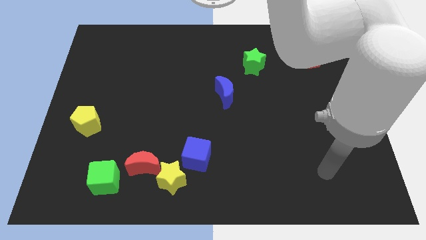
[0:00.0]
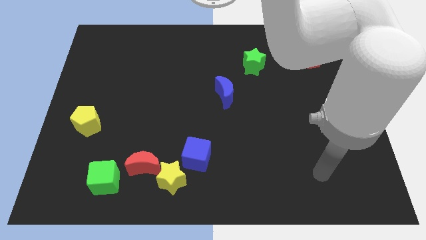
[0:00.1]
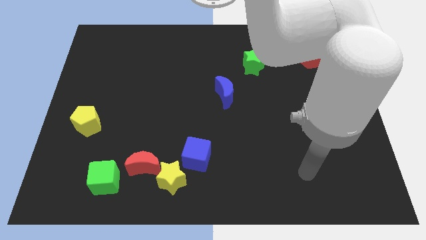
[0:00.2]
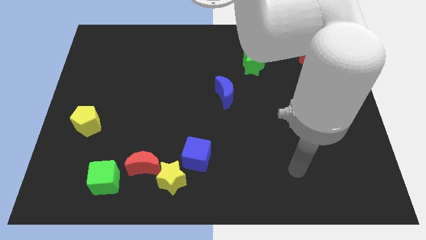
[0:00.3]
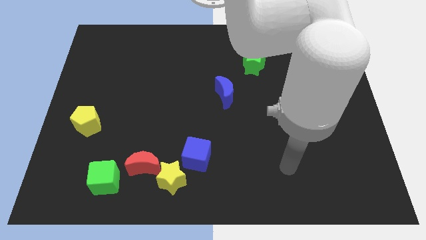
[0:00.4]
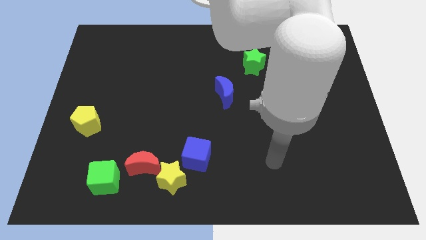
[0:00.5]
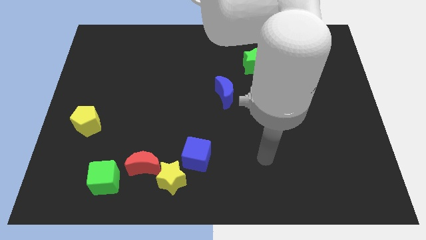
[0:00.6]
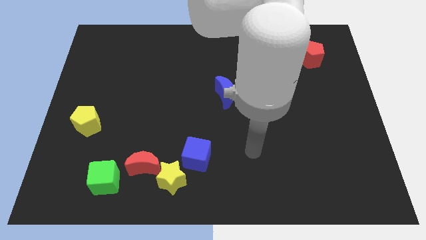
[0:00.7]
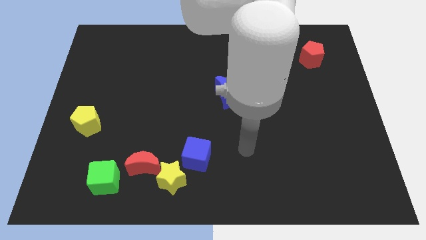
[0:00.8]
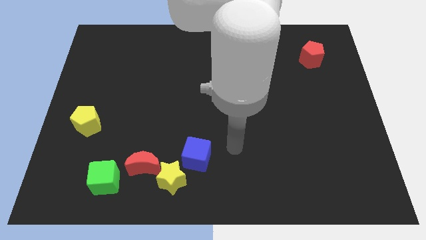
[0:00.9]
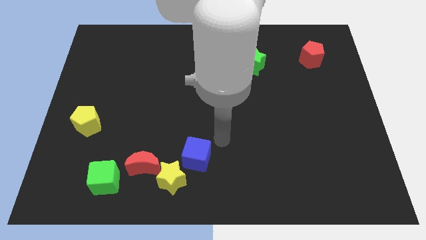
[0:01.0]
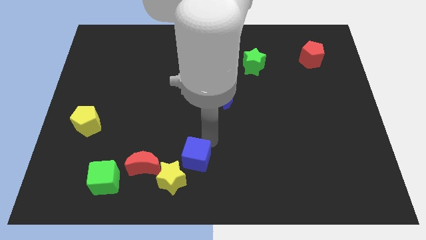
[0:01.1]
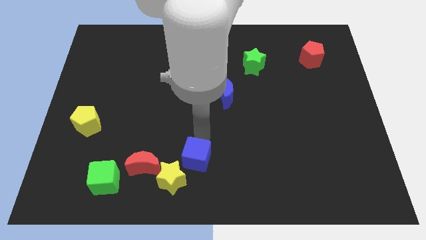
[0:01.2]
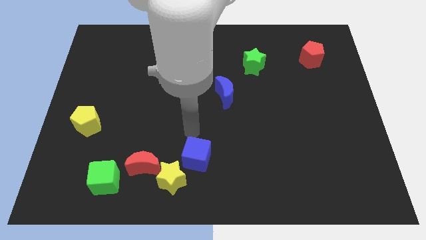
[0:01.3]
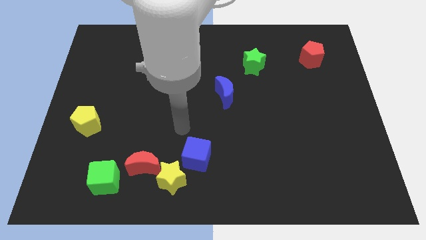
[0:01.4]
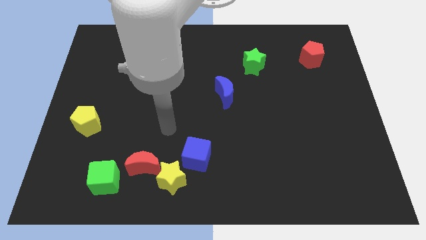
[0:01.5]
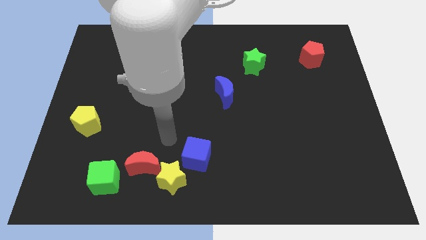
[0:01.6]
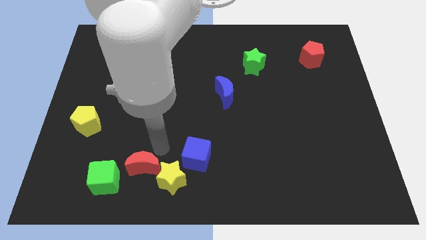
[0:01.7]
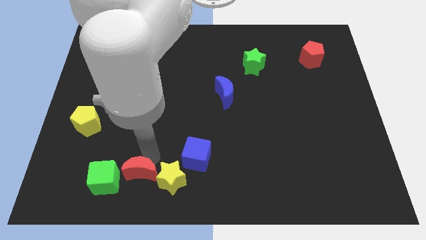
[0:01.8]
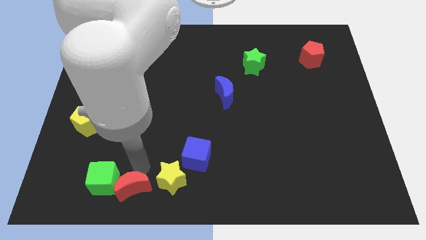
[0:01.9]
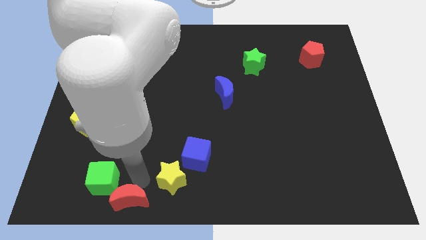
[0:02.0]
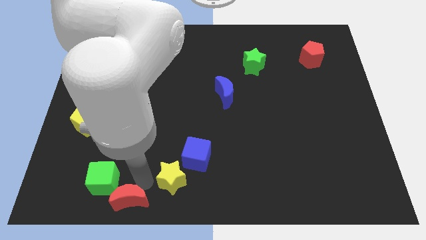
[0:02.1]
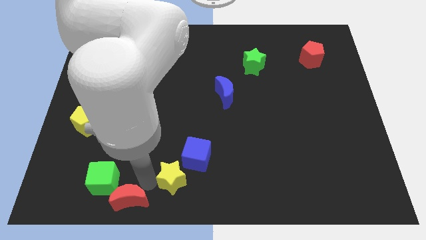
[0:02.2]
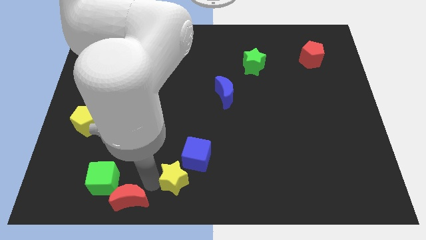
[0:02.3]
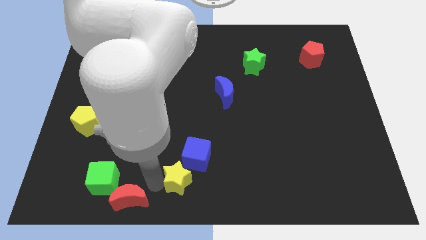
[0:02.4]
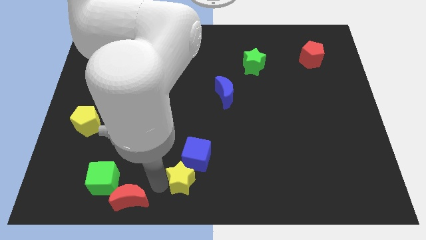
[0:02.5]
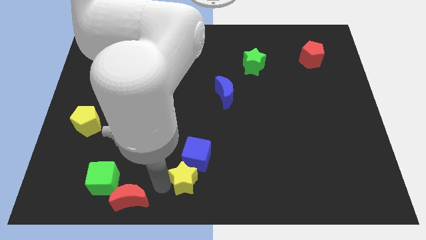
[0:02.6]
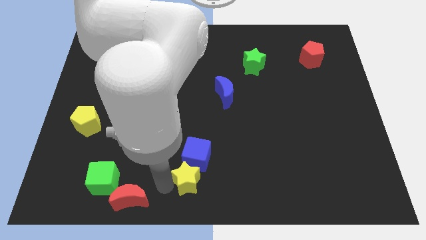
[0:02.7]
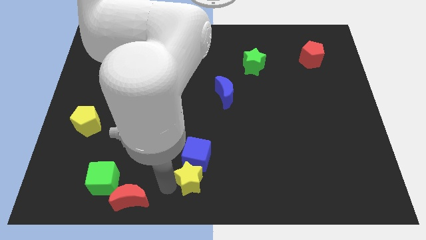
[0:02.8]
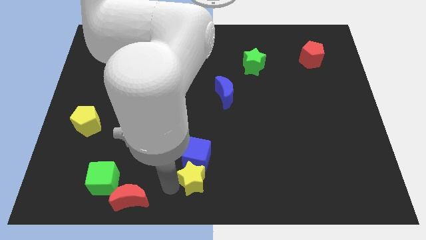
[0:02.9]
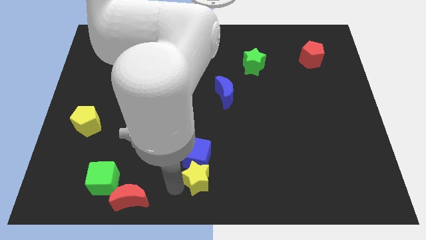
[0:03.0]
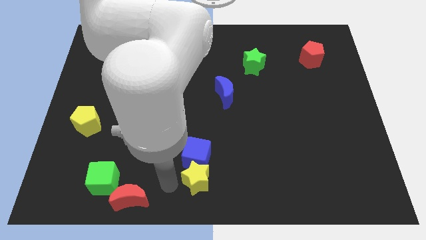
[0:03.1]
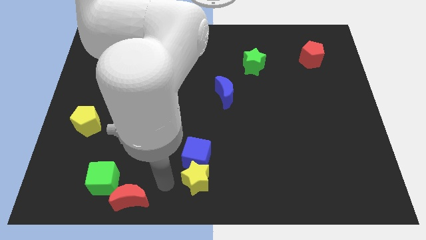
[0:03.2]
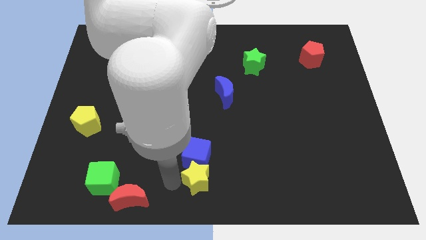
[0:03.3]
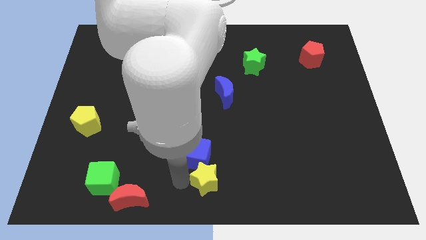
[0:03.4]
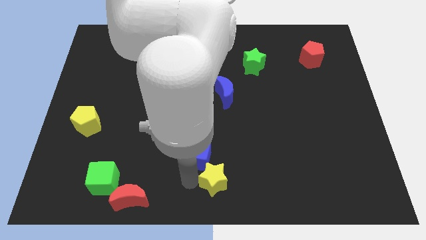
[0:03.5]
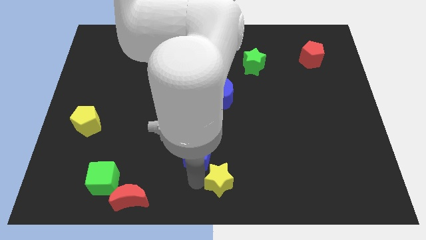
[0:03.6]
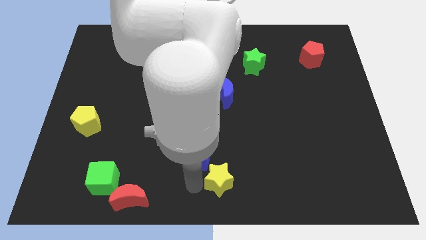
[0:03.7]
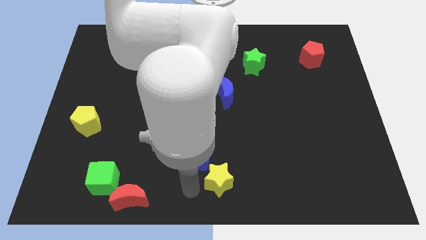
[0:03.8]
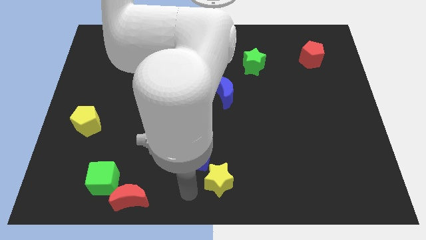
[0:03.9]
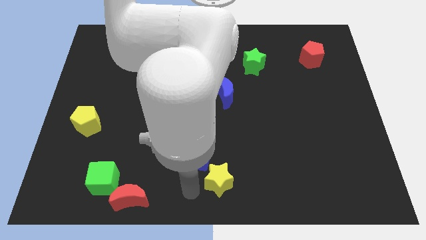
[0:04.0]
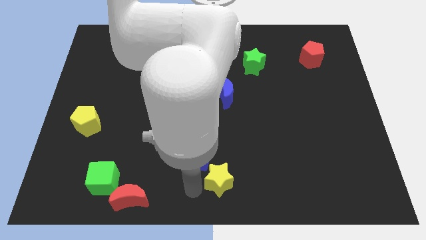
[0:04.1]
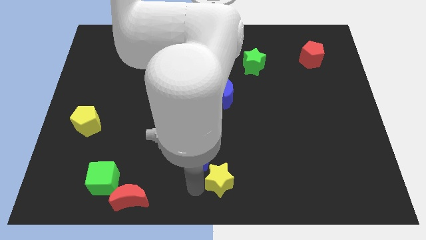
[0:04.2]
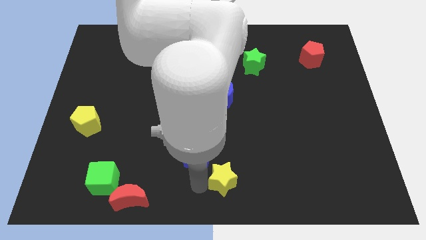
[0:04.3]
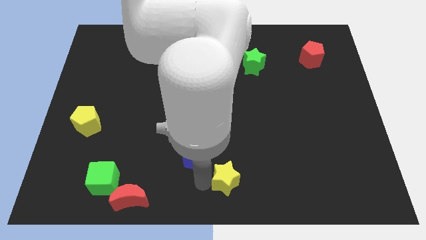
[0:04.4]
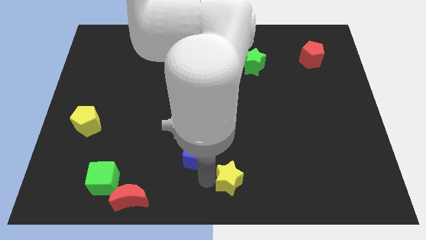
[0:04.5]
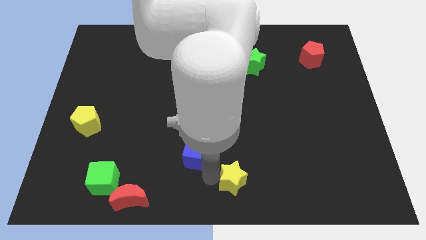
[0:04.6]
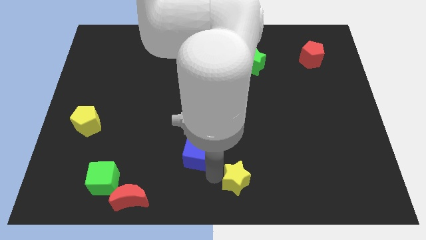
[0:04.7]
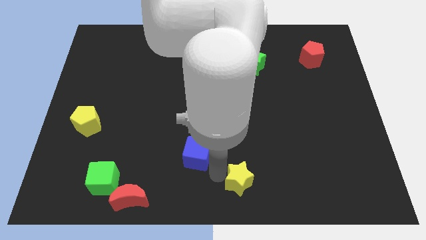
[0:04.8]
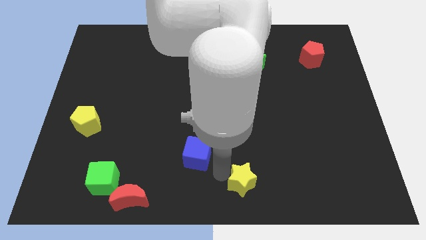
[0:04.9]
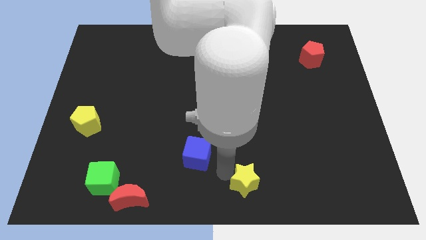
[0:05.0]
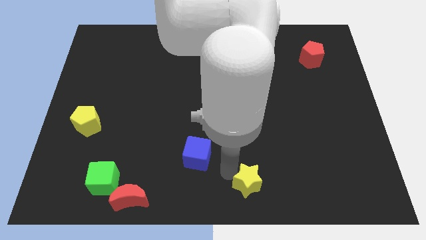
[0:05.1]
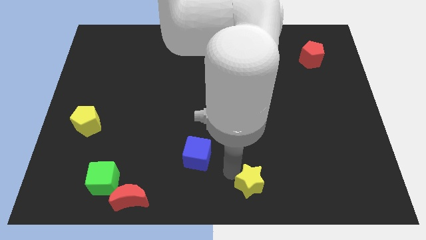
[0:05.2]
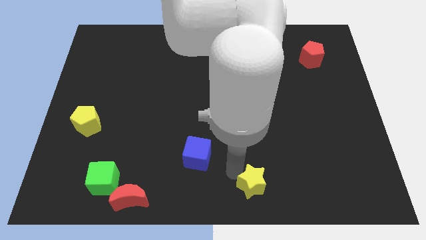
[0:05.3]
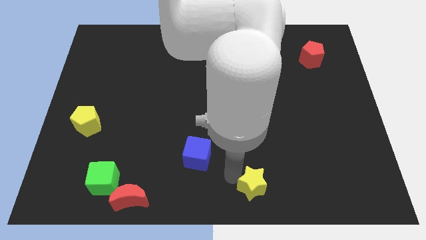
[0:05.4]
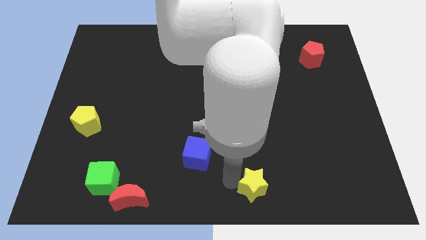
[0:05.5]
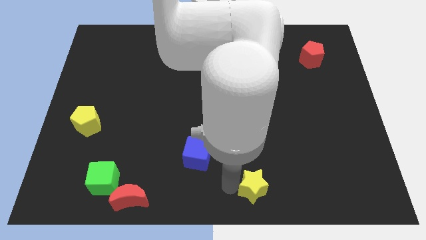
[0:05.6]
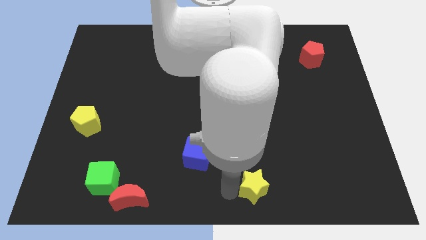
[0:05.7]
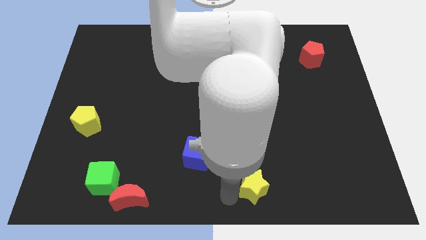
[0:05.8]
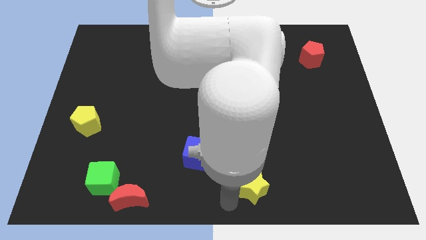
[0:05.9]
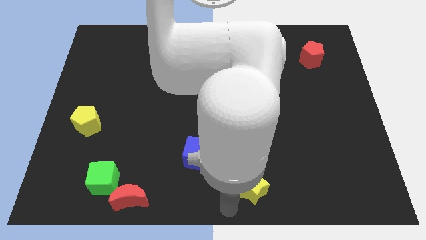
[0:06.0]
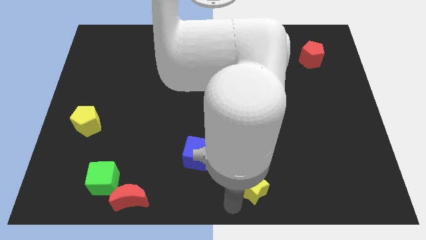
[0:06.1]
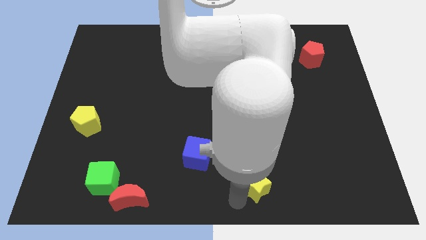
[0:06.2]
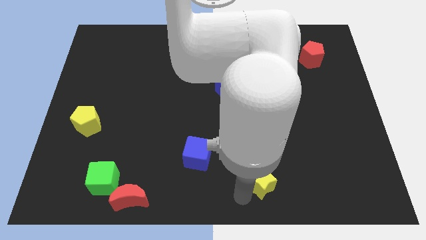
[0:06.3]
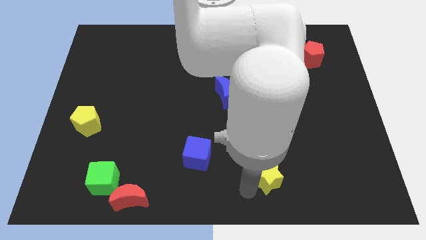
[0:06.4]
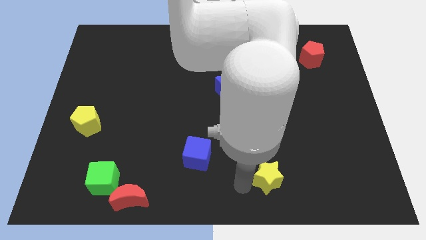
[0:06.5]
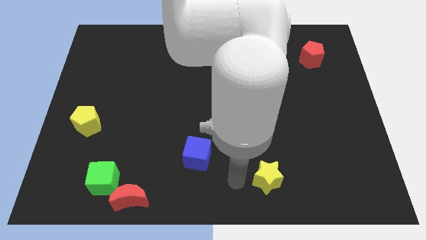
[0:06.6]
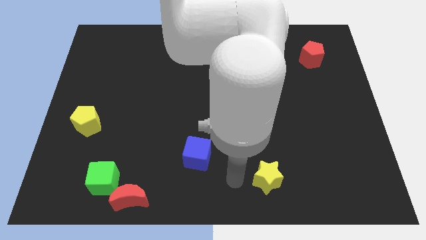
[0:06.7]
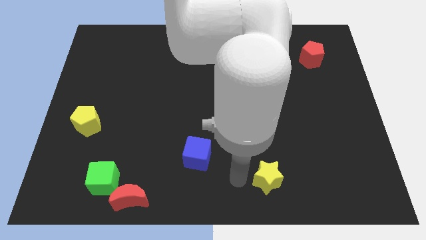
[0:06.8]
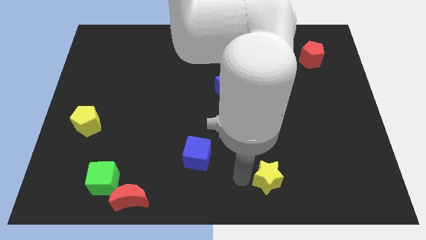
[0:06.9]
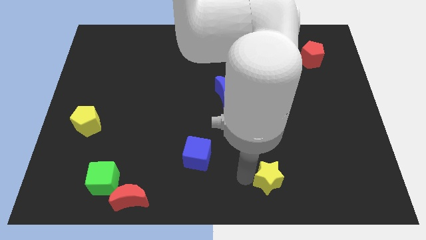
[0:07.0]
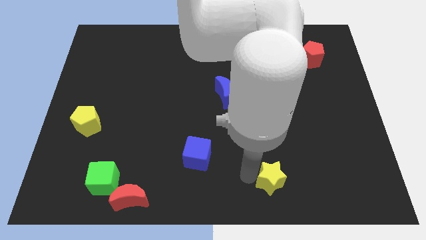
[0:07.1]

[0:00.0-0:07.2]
slide the yellow star right

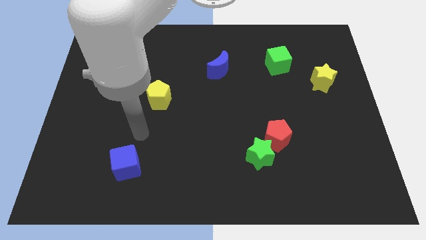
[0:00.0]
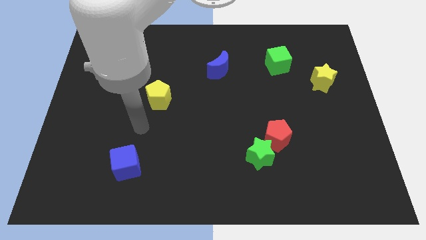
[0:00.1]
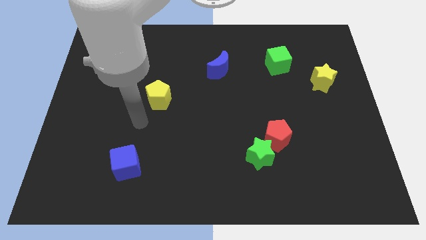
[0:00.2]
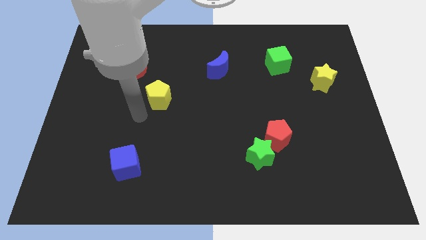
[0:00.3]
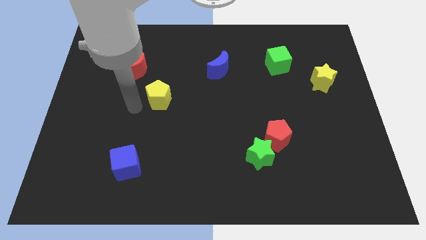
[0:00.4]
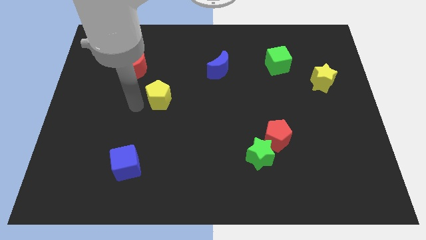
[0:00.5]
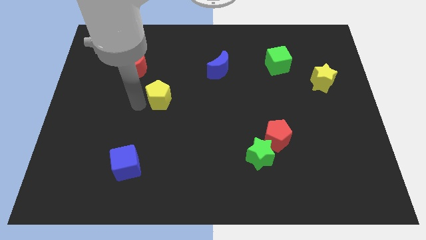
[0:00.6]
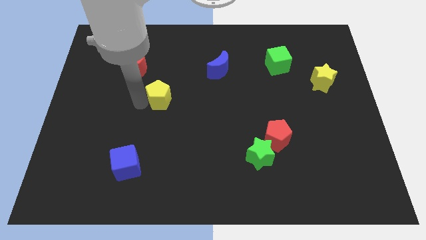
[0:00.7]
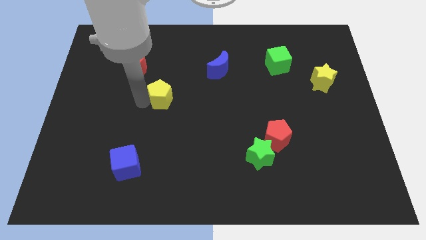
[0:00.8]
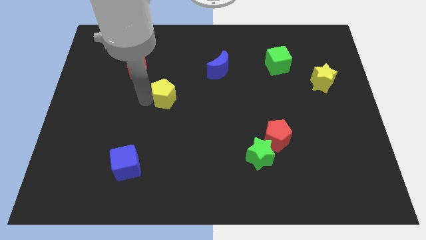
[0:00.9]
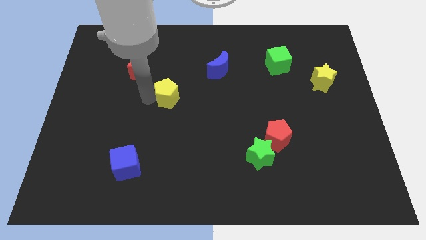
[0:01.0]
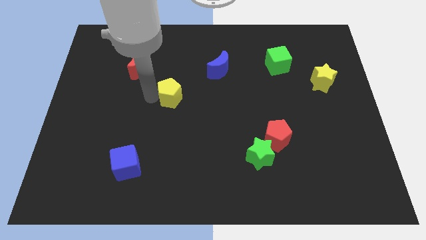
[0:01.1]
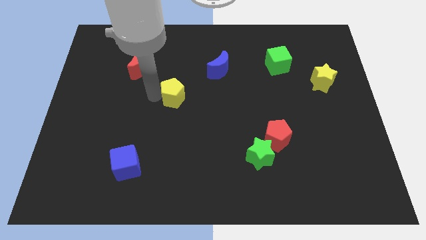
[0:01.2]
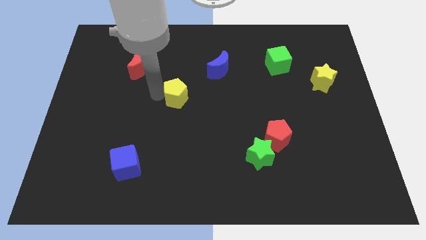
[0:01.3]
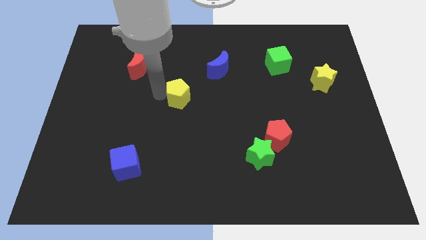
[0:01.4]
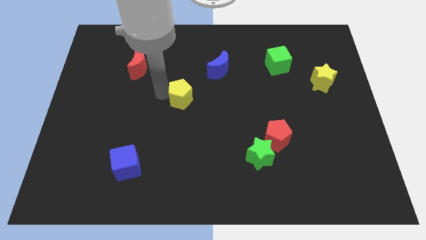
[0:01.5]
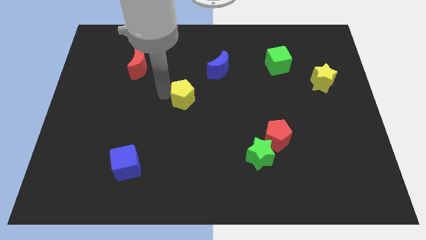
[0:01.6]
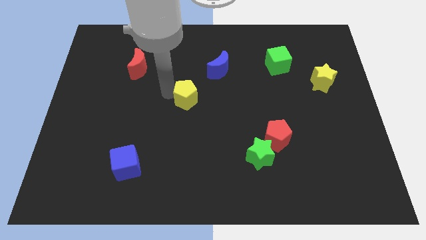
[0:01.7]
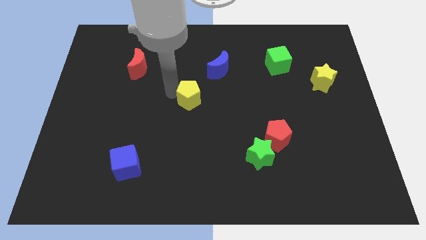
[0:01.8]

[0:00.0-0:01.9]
slightly move the yellow pentagon to the right
